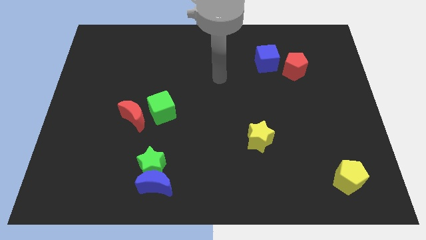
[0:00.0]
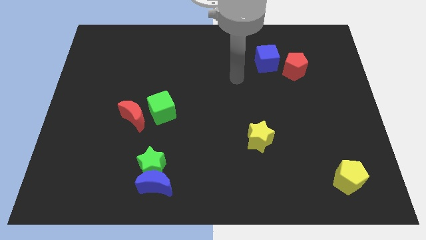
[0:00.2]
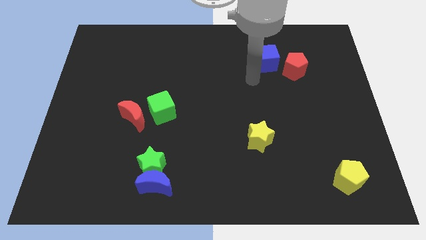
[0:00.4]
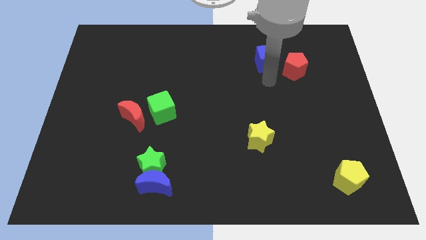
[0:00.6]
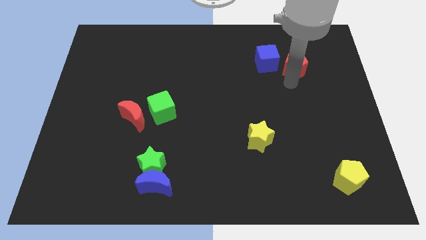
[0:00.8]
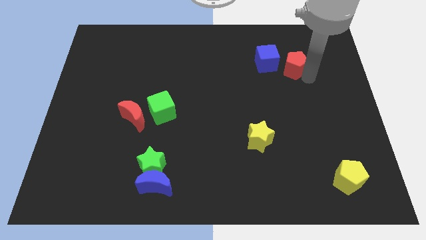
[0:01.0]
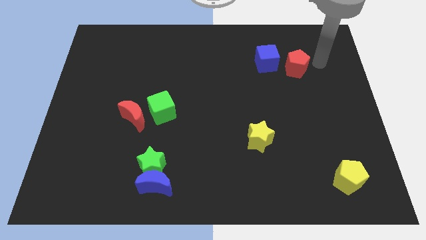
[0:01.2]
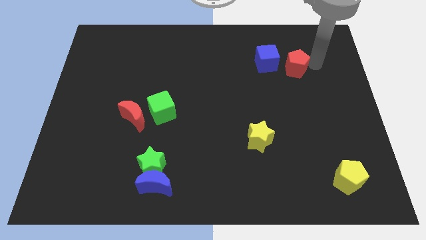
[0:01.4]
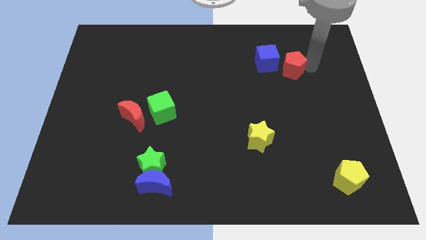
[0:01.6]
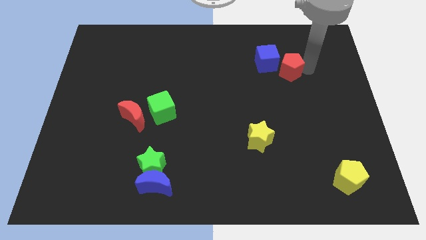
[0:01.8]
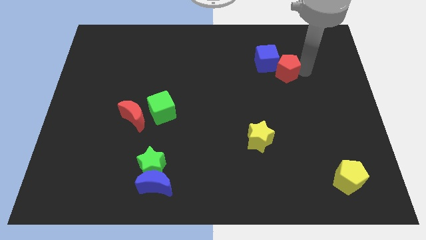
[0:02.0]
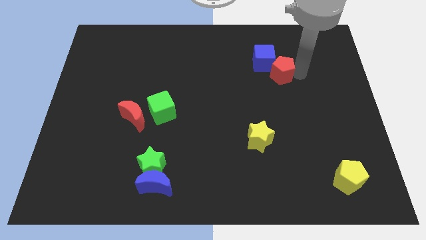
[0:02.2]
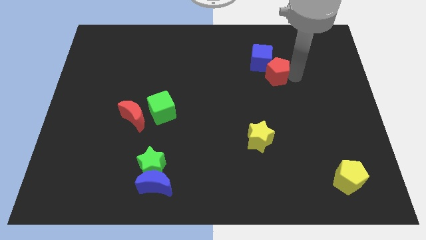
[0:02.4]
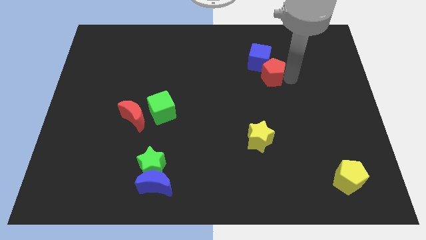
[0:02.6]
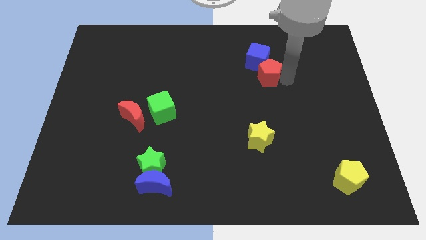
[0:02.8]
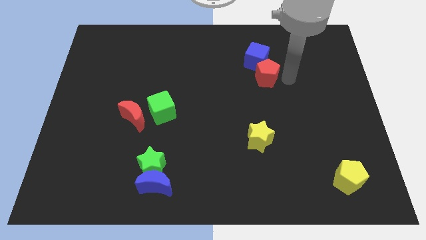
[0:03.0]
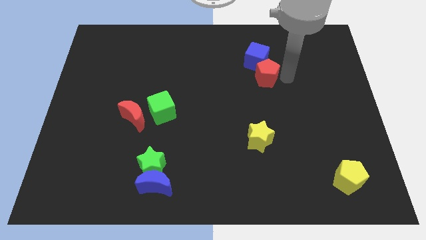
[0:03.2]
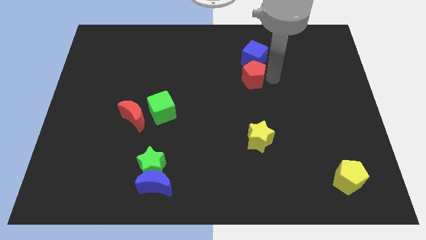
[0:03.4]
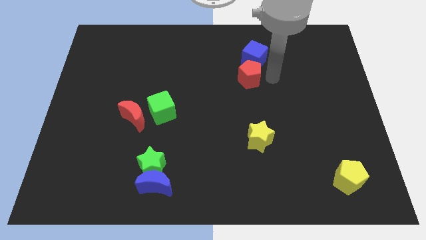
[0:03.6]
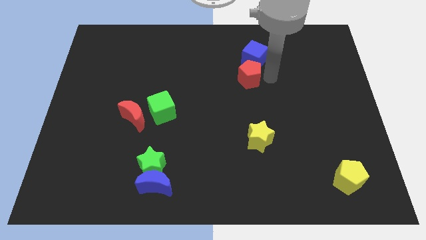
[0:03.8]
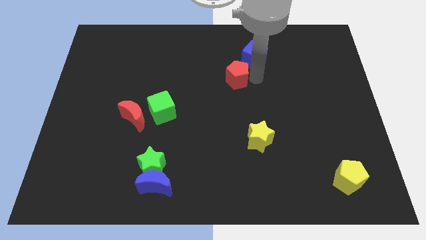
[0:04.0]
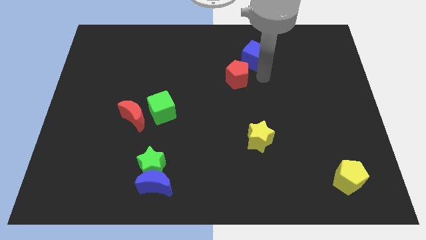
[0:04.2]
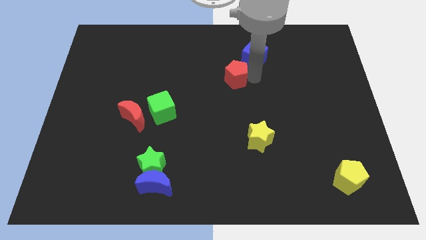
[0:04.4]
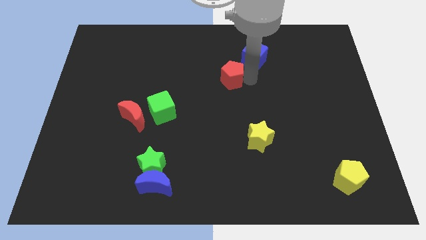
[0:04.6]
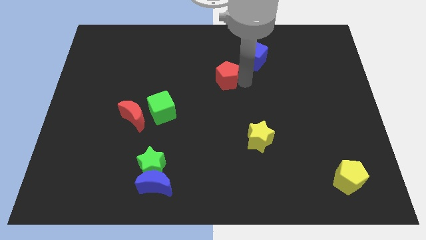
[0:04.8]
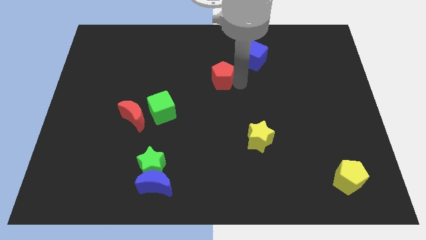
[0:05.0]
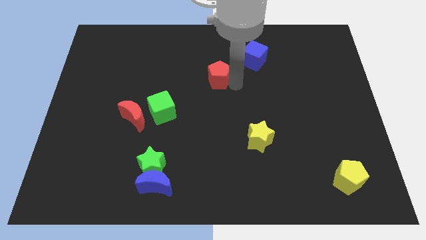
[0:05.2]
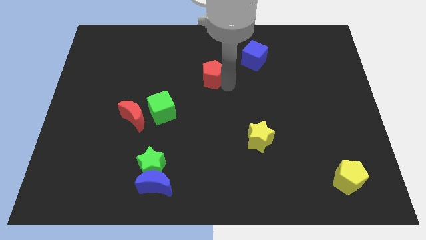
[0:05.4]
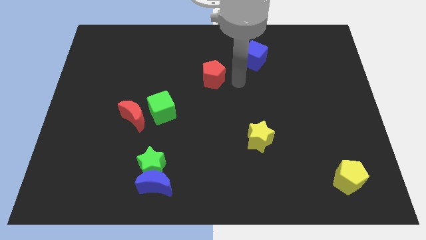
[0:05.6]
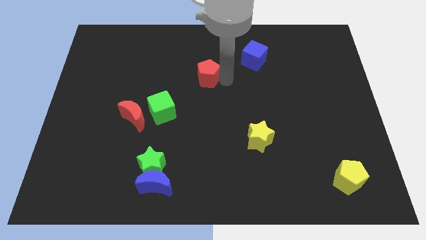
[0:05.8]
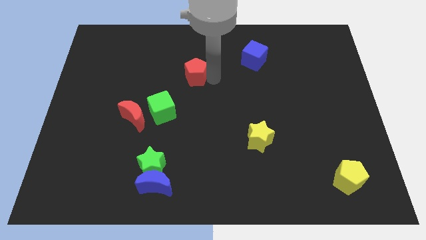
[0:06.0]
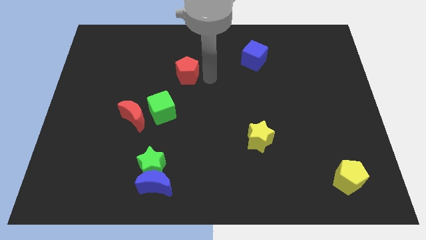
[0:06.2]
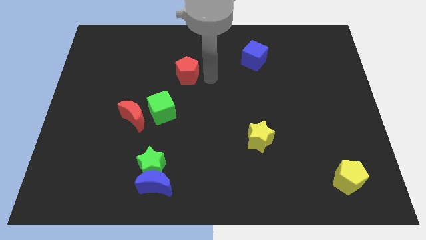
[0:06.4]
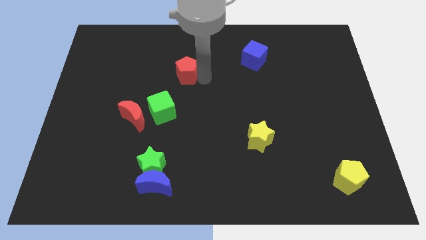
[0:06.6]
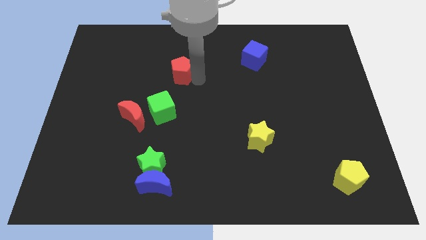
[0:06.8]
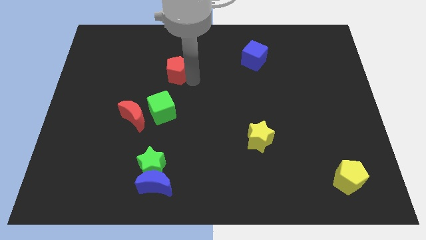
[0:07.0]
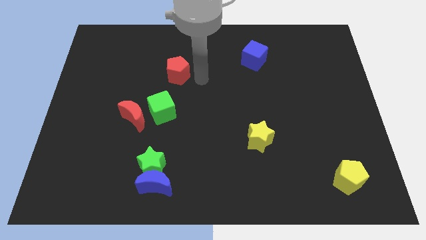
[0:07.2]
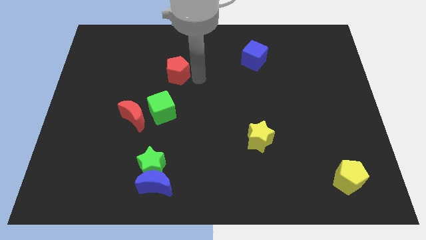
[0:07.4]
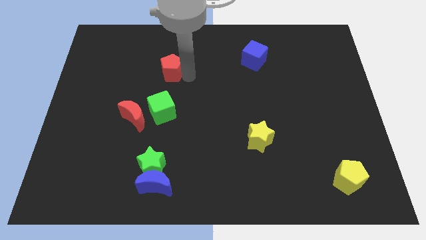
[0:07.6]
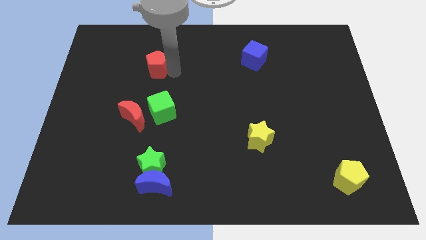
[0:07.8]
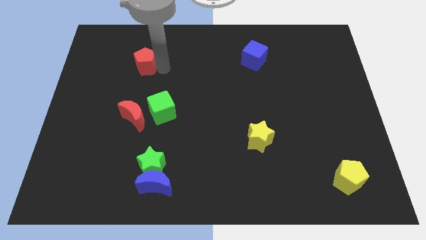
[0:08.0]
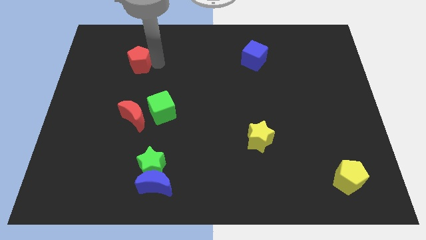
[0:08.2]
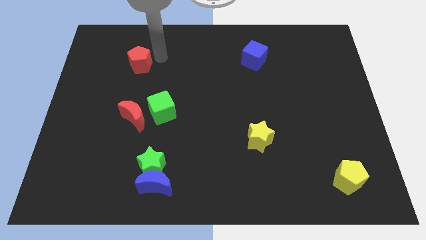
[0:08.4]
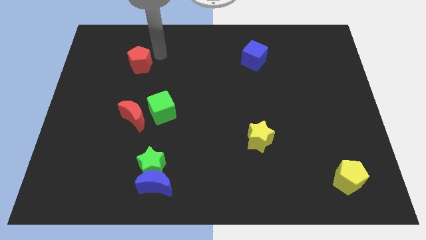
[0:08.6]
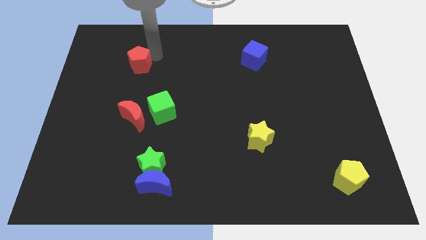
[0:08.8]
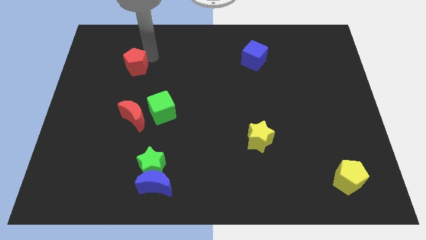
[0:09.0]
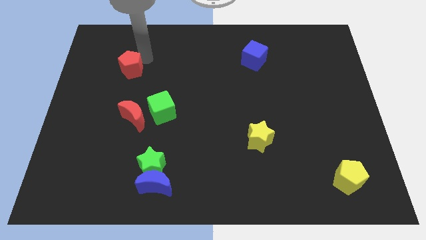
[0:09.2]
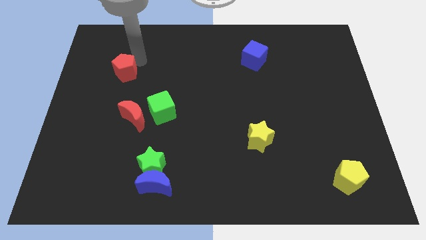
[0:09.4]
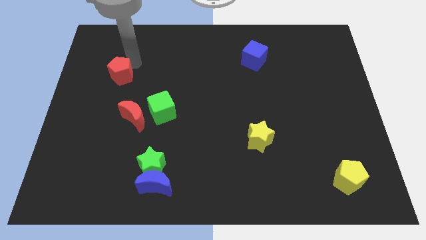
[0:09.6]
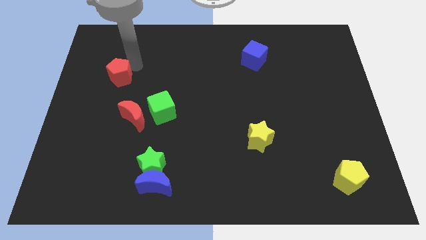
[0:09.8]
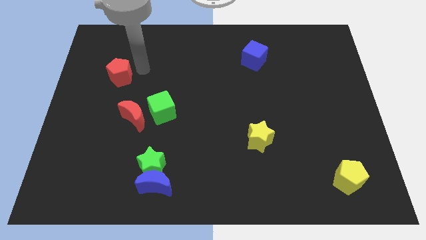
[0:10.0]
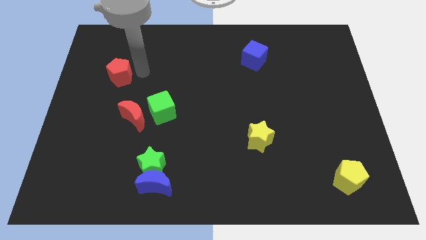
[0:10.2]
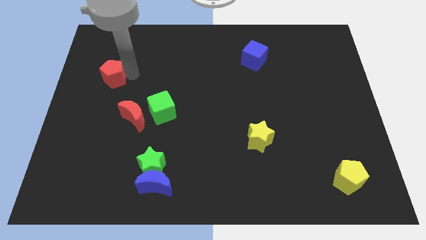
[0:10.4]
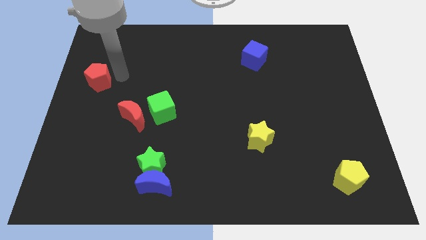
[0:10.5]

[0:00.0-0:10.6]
slide the red pentagon to the center left

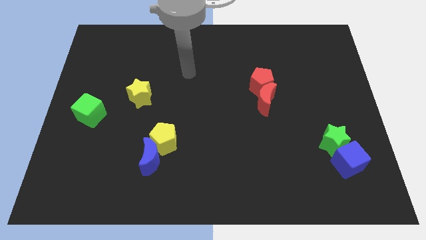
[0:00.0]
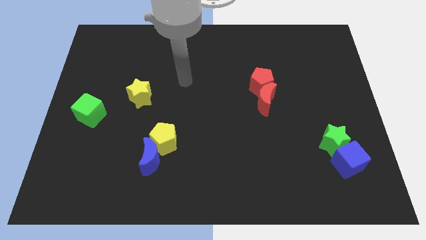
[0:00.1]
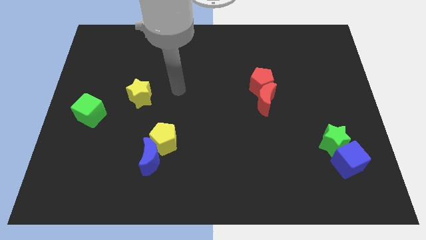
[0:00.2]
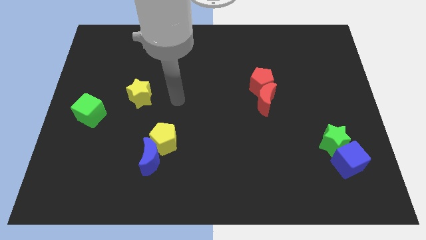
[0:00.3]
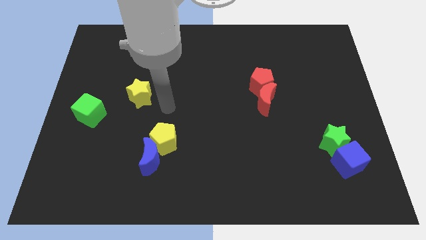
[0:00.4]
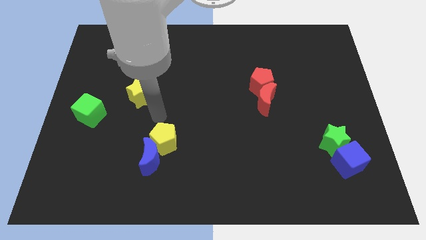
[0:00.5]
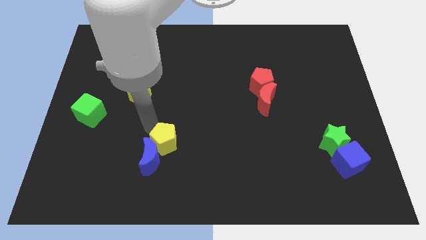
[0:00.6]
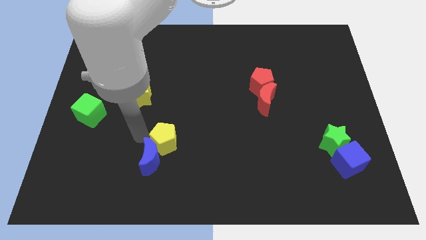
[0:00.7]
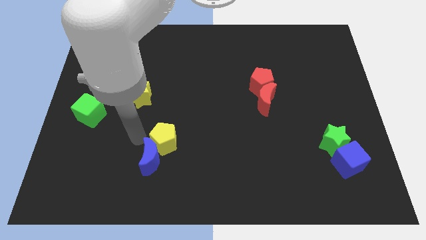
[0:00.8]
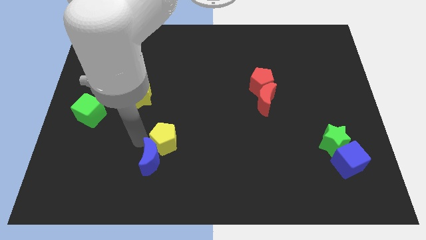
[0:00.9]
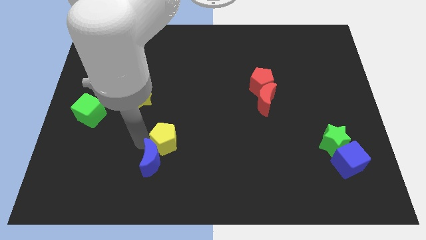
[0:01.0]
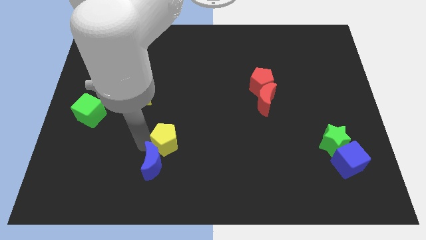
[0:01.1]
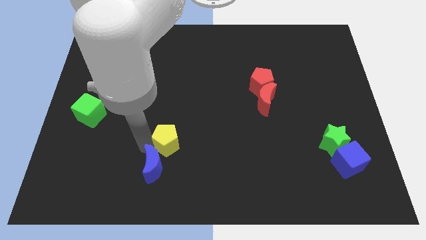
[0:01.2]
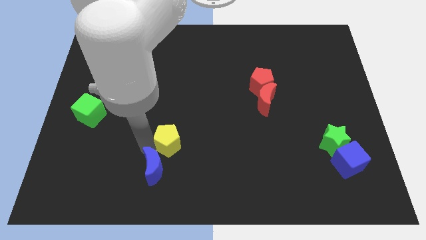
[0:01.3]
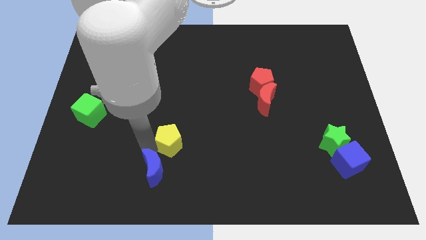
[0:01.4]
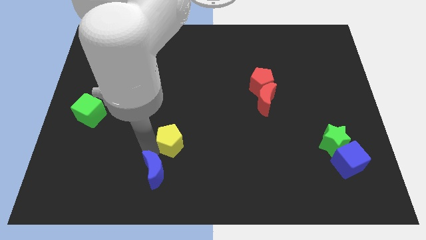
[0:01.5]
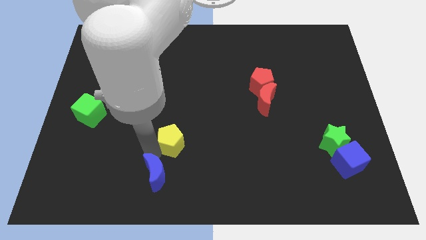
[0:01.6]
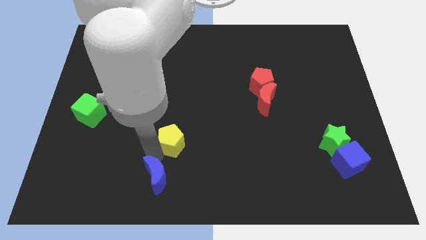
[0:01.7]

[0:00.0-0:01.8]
slide the blue moon to the bottom

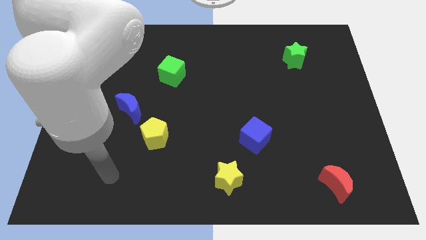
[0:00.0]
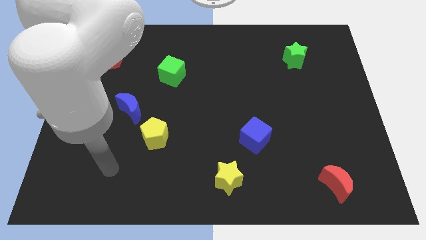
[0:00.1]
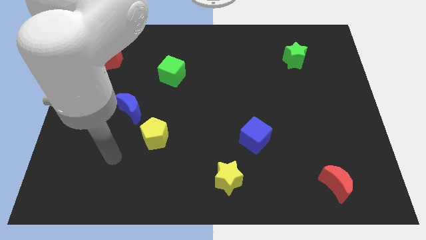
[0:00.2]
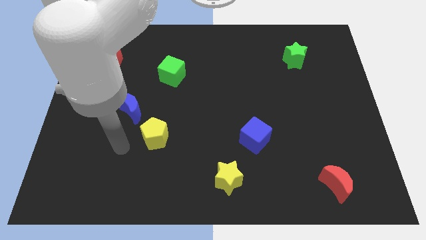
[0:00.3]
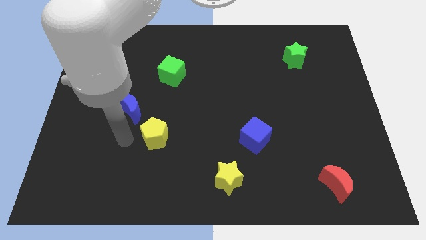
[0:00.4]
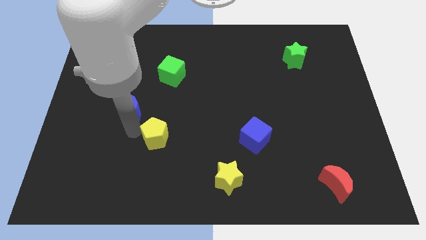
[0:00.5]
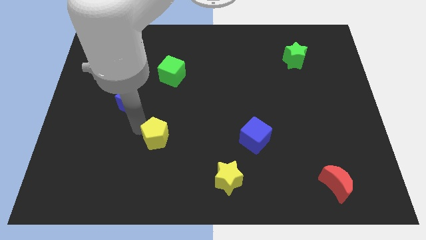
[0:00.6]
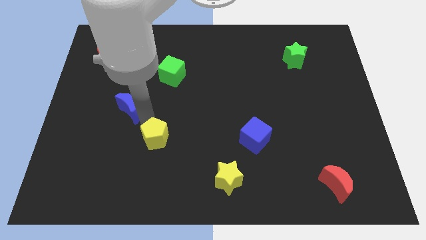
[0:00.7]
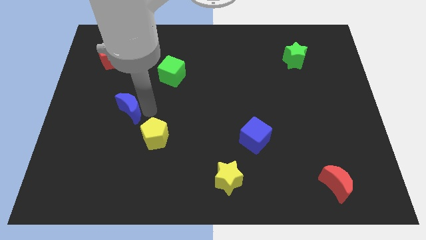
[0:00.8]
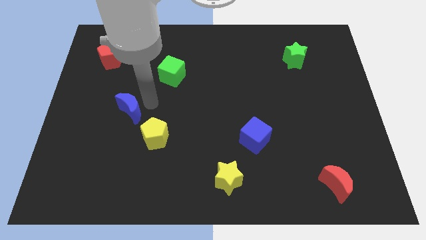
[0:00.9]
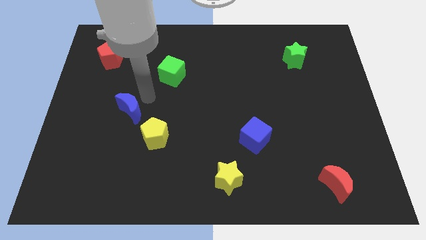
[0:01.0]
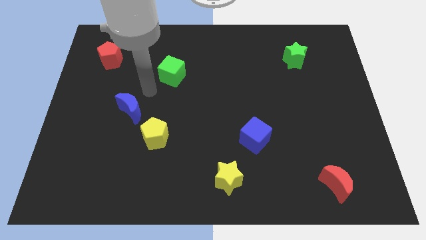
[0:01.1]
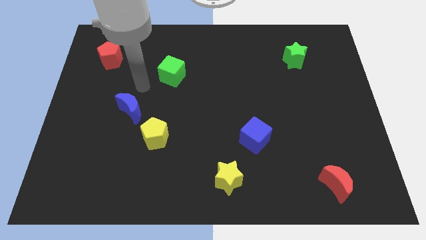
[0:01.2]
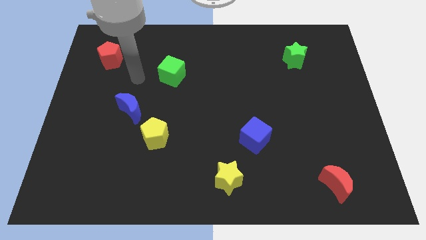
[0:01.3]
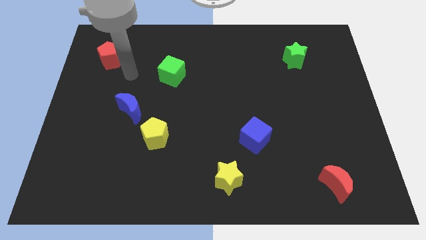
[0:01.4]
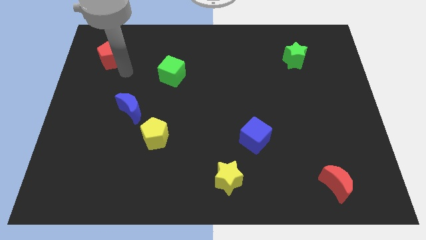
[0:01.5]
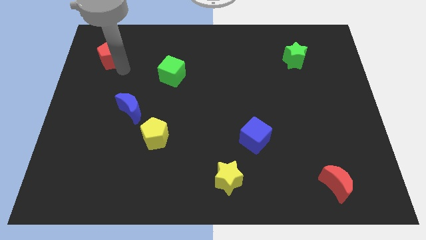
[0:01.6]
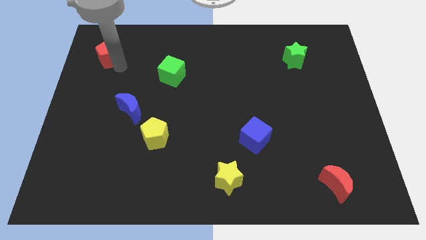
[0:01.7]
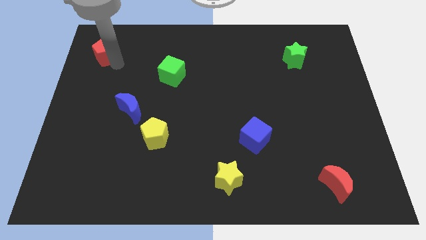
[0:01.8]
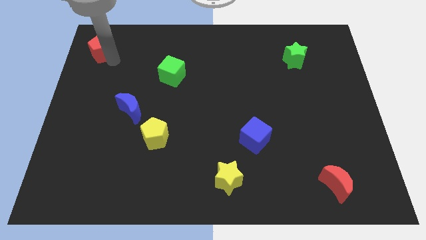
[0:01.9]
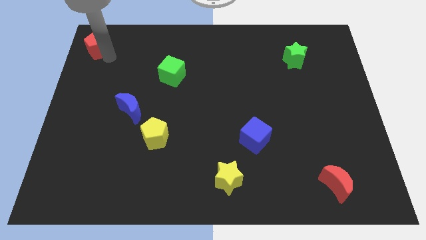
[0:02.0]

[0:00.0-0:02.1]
slide the red pentagon to the top left
